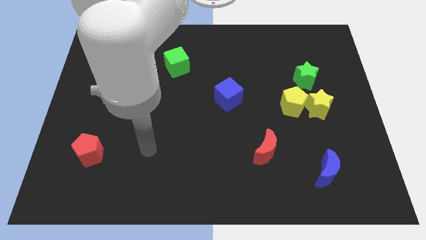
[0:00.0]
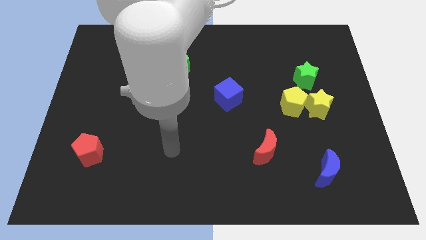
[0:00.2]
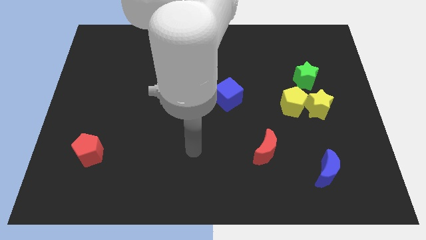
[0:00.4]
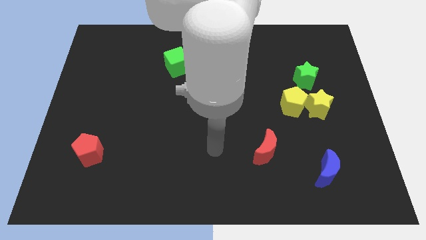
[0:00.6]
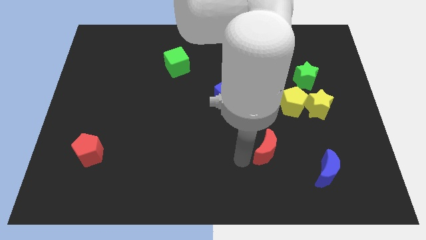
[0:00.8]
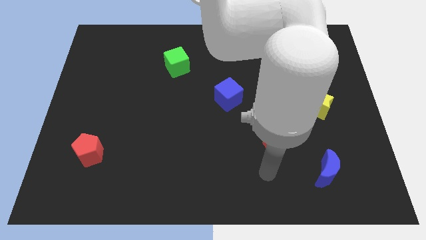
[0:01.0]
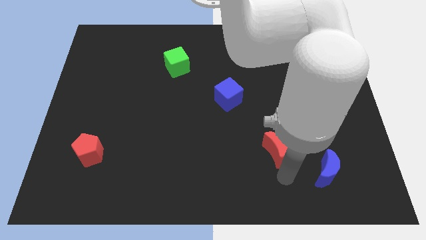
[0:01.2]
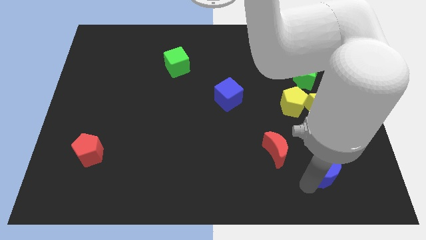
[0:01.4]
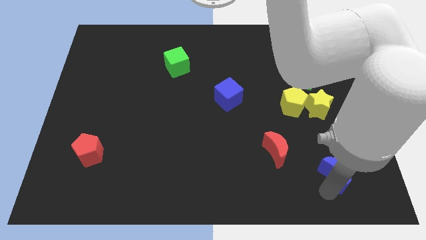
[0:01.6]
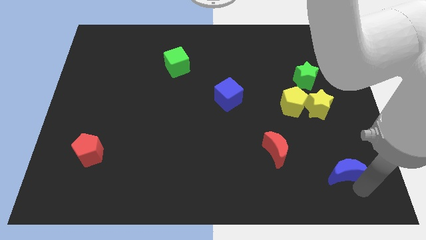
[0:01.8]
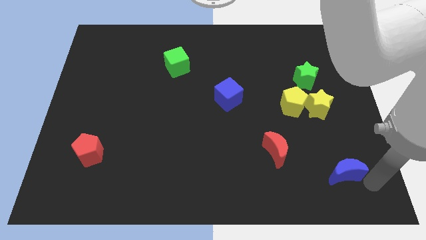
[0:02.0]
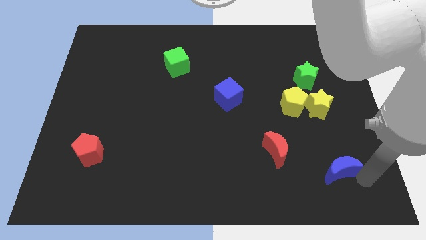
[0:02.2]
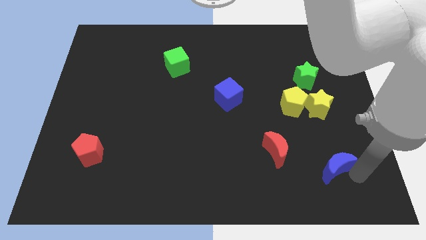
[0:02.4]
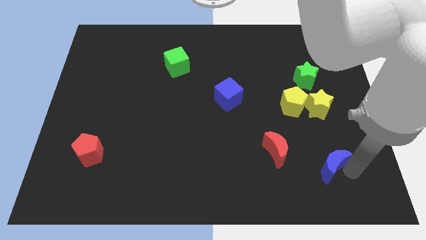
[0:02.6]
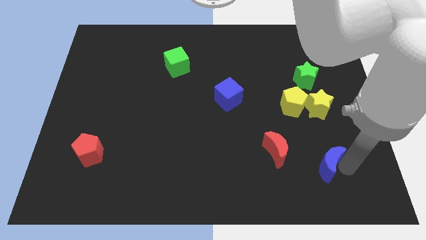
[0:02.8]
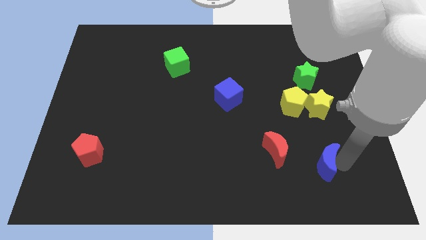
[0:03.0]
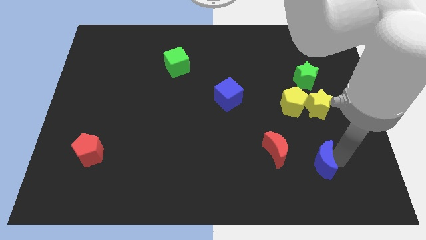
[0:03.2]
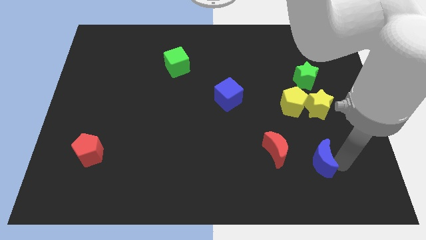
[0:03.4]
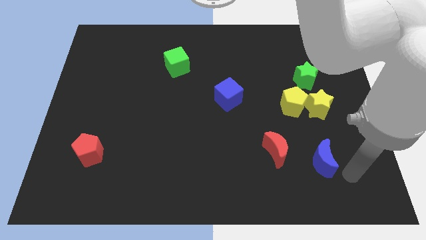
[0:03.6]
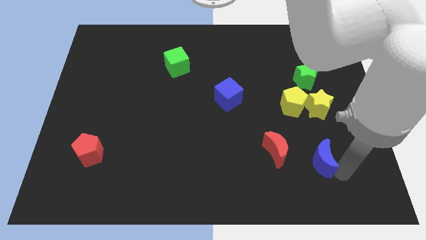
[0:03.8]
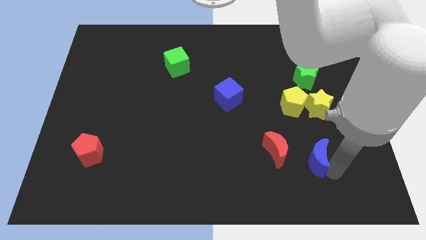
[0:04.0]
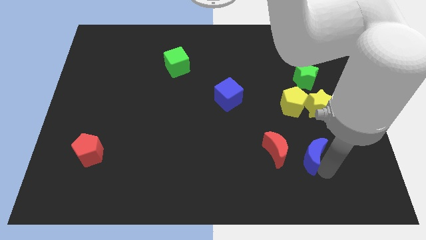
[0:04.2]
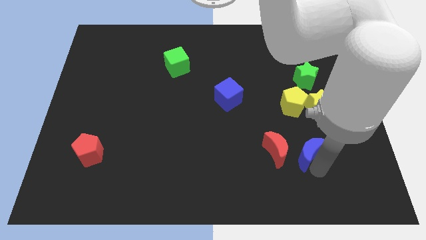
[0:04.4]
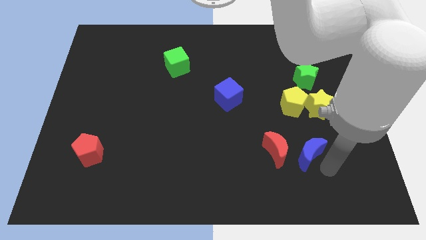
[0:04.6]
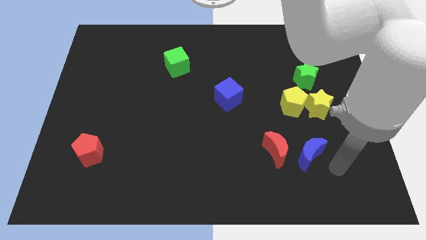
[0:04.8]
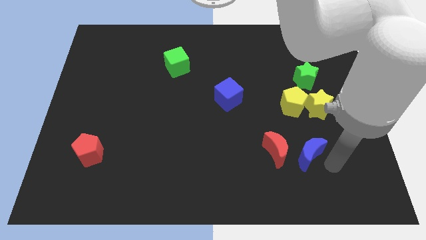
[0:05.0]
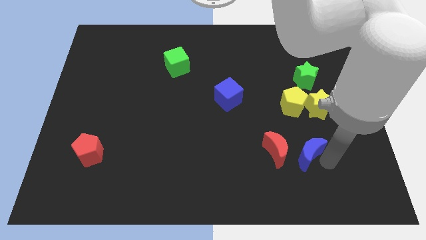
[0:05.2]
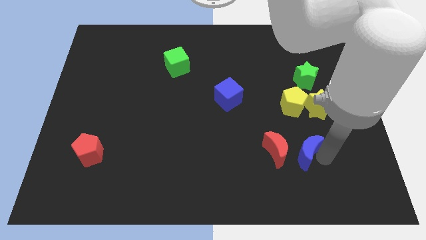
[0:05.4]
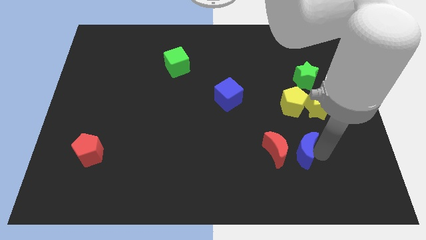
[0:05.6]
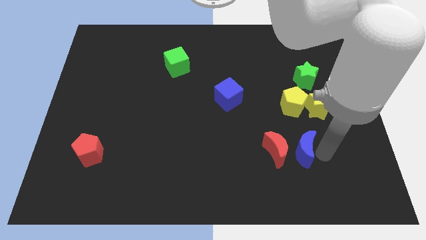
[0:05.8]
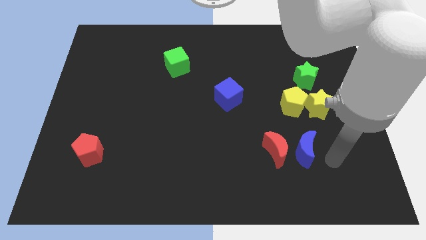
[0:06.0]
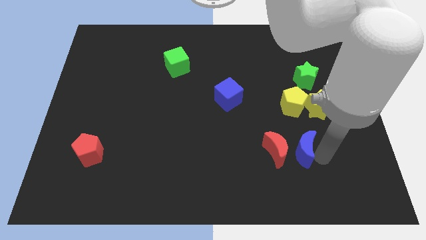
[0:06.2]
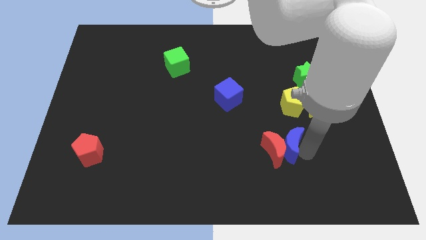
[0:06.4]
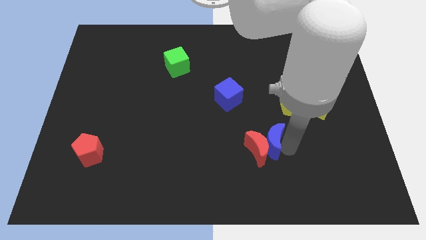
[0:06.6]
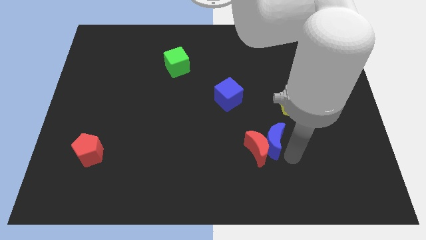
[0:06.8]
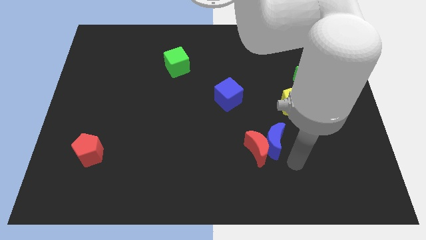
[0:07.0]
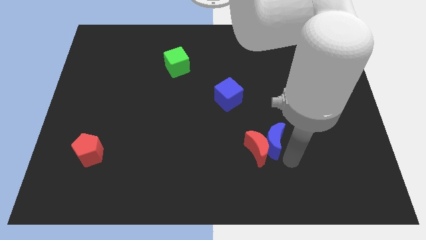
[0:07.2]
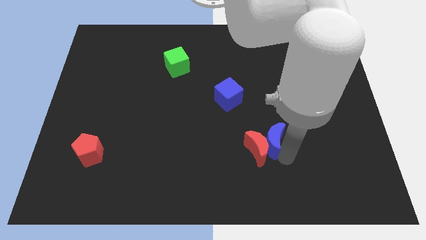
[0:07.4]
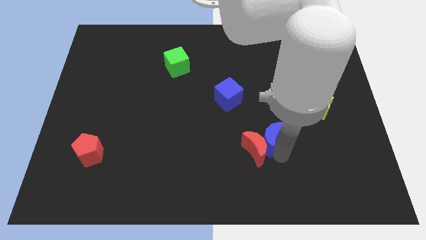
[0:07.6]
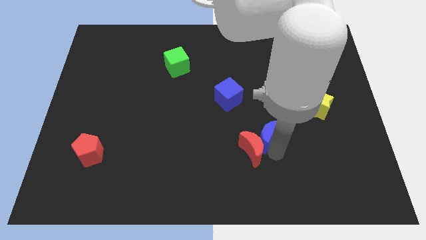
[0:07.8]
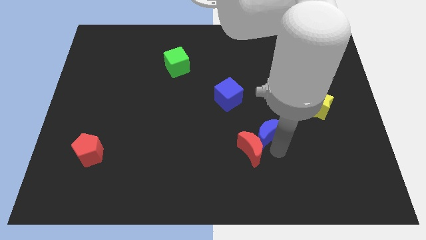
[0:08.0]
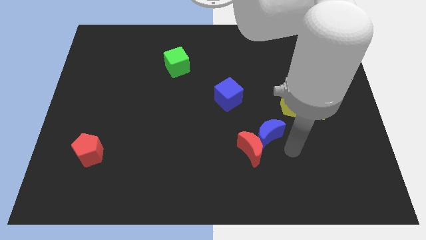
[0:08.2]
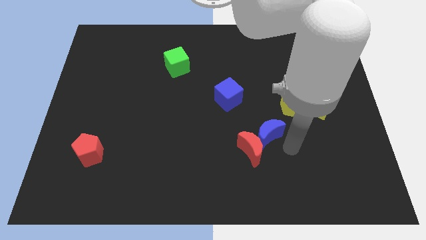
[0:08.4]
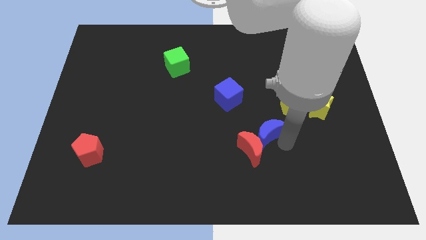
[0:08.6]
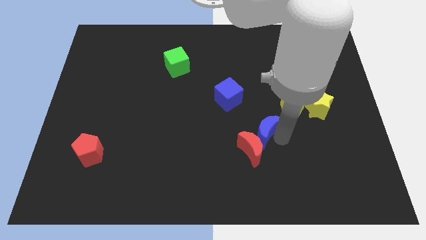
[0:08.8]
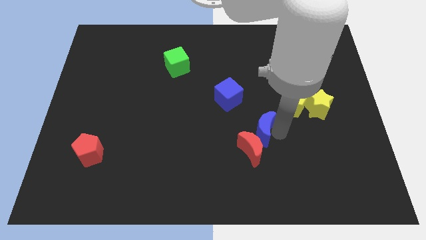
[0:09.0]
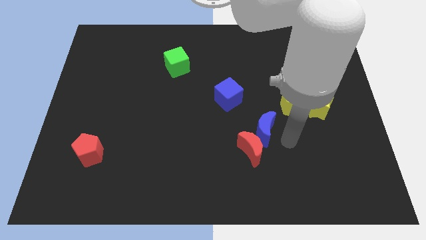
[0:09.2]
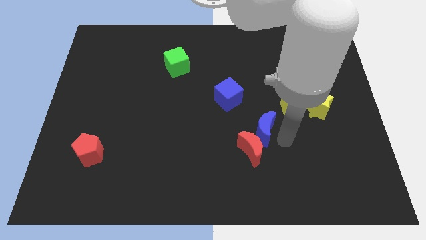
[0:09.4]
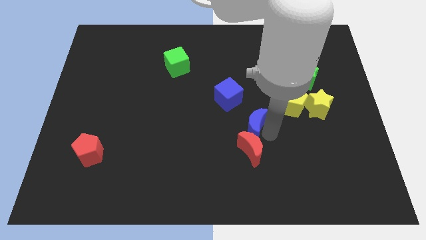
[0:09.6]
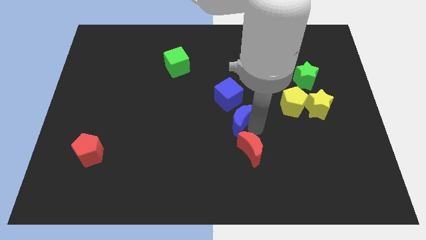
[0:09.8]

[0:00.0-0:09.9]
move the blue moon diagonally up and to the left

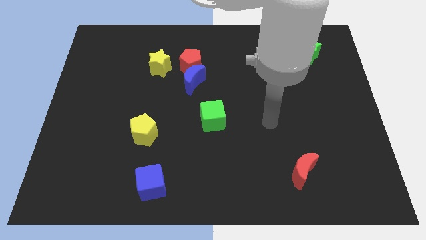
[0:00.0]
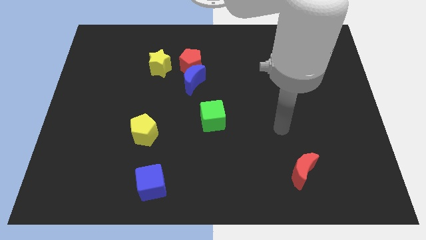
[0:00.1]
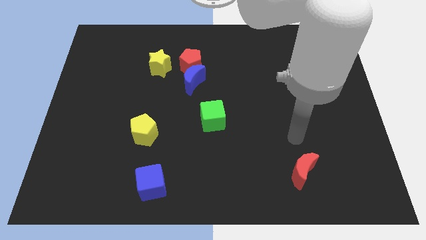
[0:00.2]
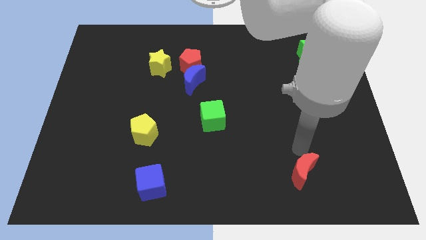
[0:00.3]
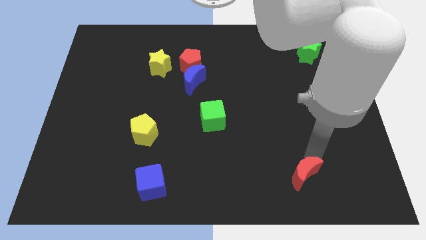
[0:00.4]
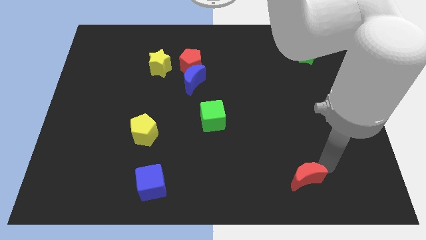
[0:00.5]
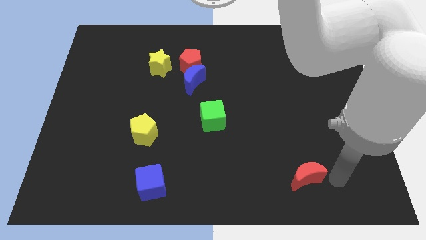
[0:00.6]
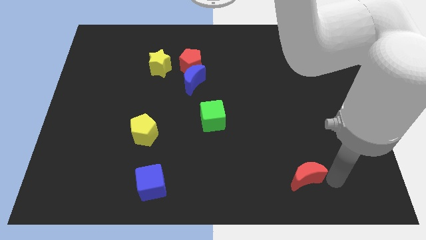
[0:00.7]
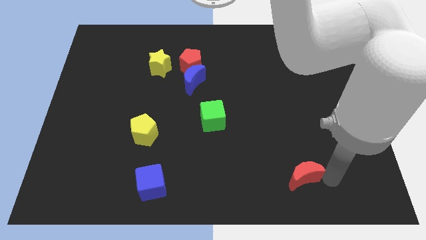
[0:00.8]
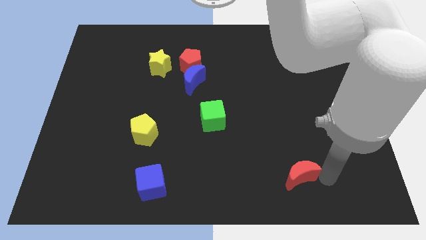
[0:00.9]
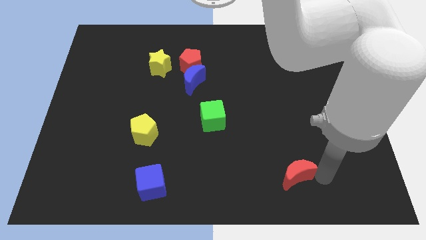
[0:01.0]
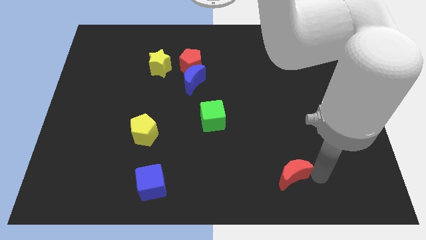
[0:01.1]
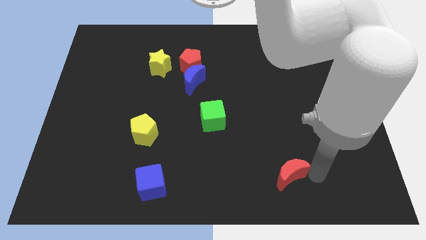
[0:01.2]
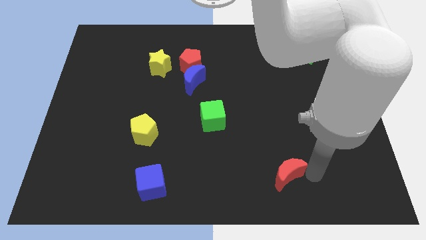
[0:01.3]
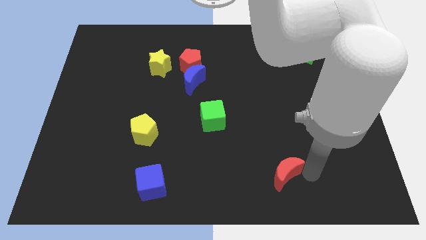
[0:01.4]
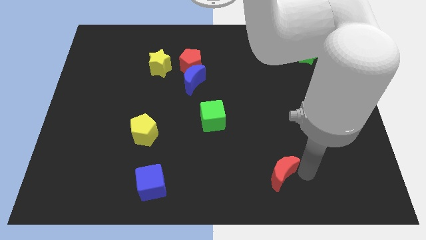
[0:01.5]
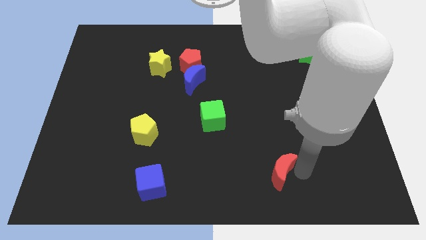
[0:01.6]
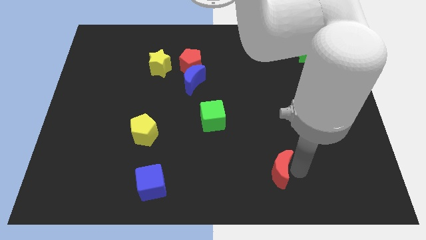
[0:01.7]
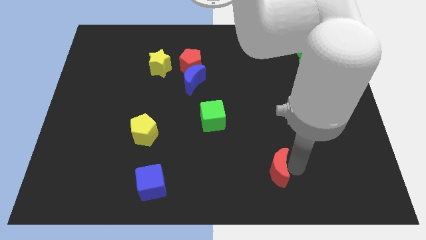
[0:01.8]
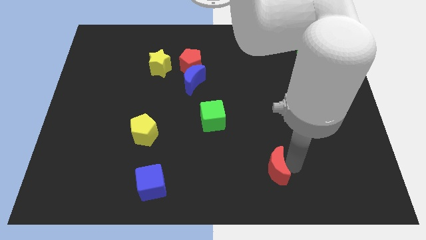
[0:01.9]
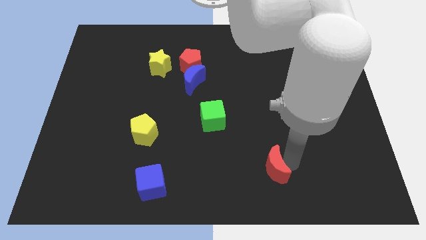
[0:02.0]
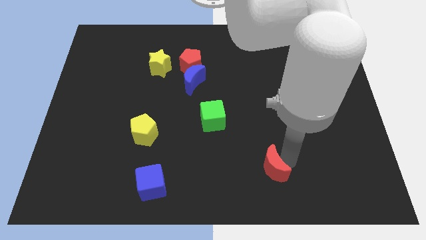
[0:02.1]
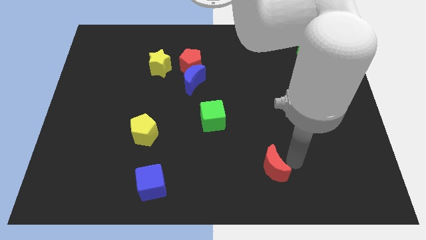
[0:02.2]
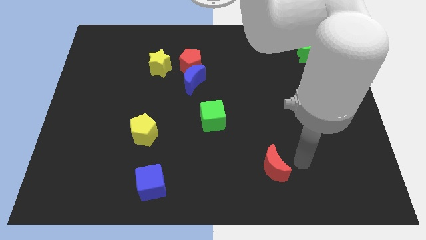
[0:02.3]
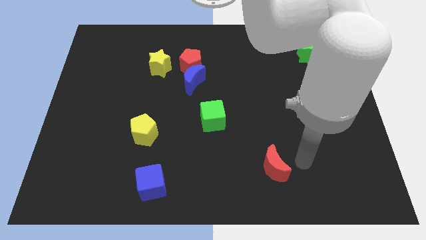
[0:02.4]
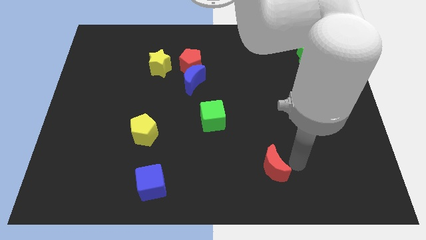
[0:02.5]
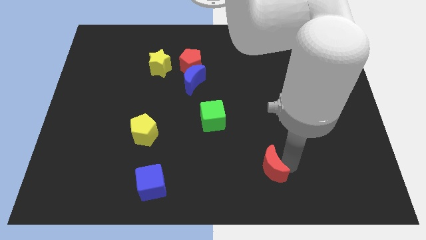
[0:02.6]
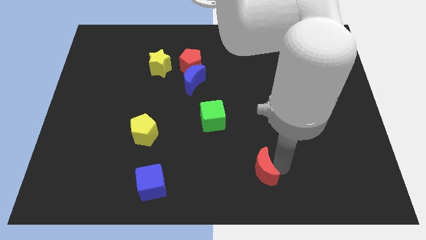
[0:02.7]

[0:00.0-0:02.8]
move the red moon a little to the left

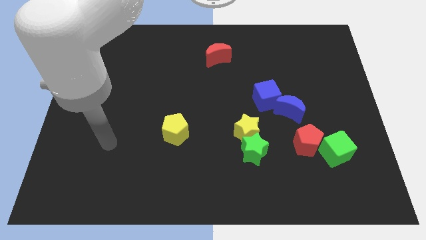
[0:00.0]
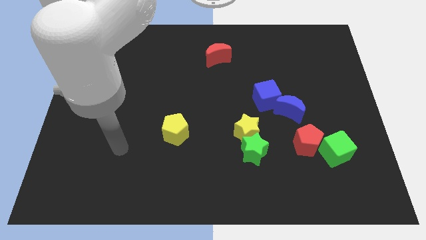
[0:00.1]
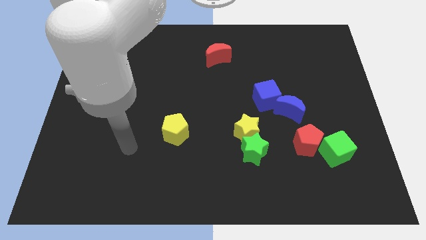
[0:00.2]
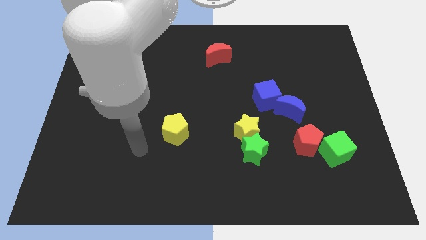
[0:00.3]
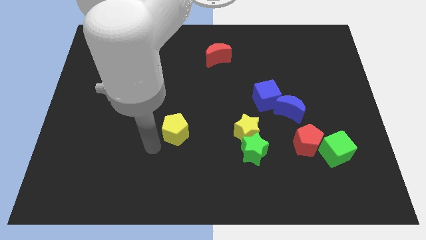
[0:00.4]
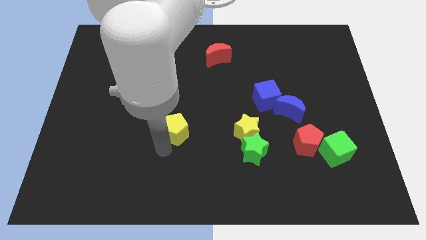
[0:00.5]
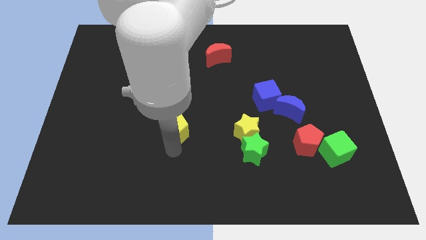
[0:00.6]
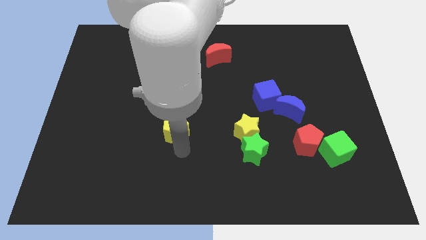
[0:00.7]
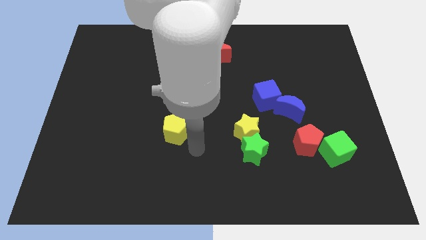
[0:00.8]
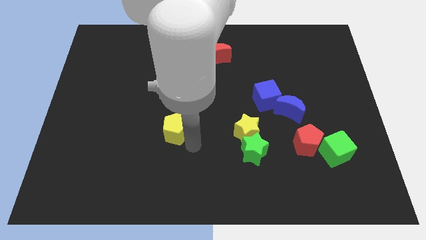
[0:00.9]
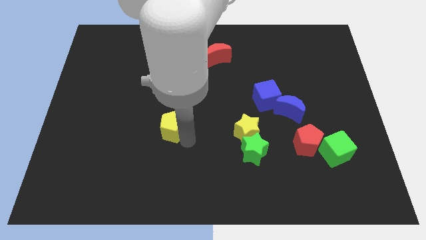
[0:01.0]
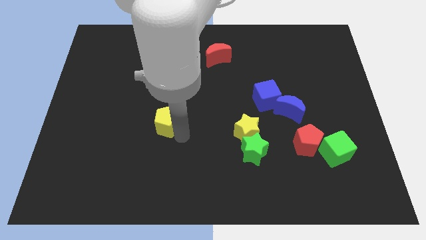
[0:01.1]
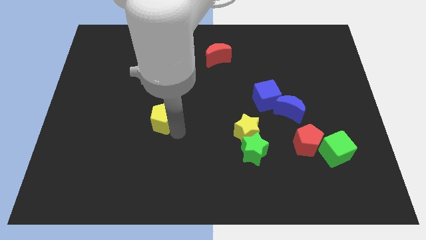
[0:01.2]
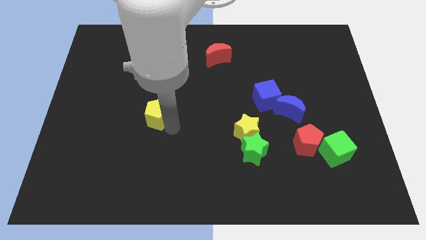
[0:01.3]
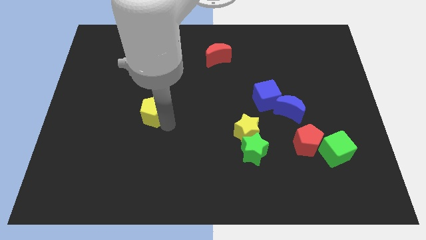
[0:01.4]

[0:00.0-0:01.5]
slide the yellow pentagon upwards and left diagonally a bit
